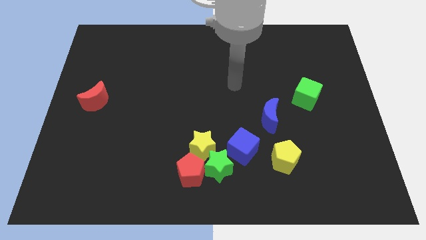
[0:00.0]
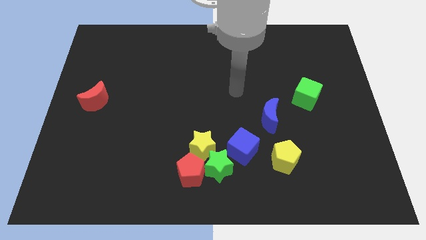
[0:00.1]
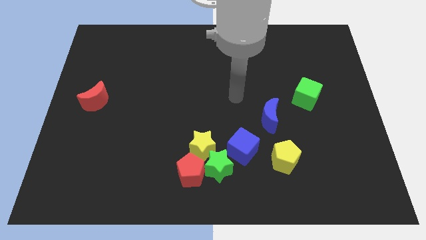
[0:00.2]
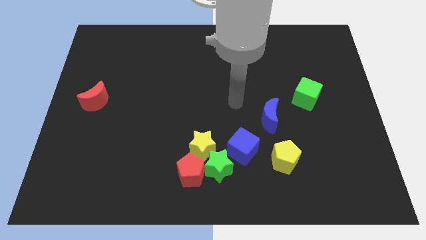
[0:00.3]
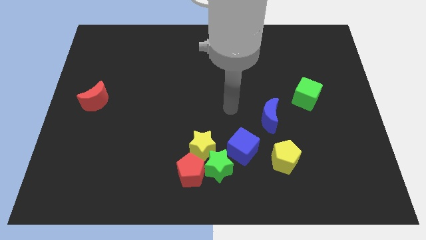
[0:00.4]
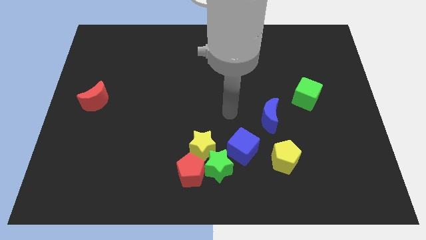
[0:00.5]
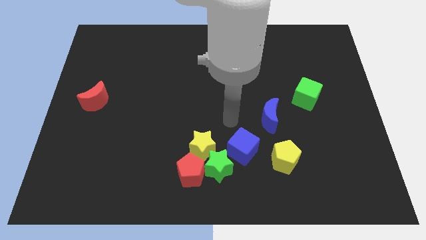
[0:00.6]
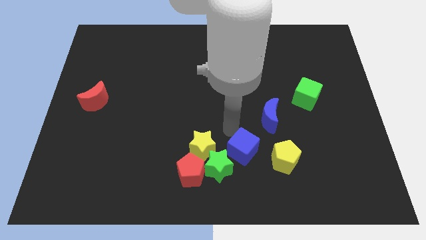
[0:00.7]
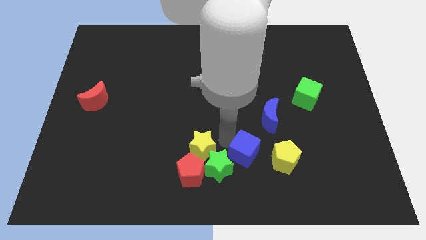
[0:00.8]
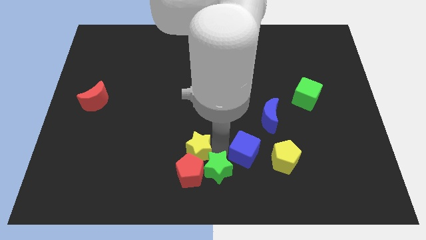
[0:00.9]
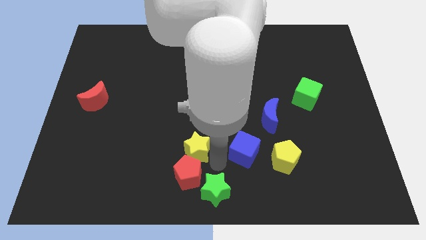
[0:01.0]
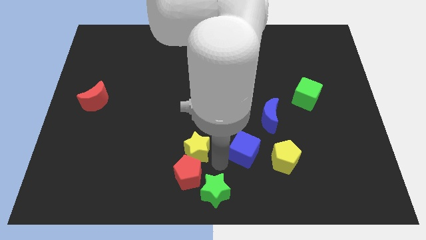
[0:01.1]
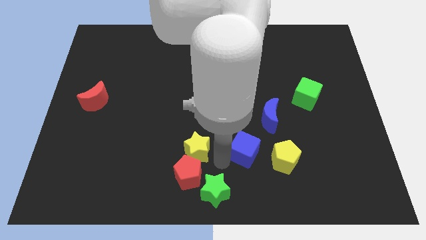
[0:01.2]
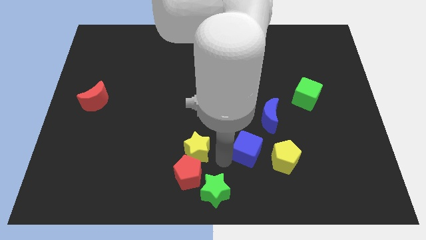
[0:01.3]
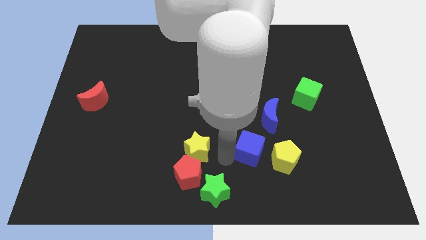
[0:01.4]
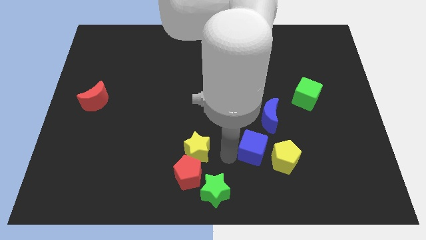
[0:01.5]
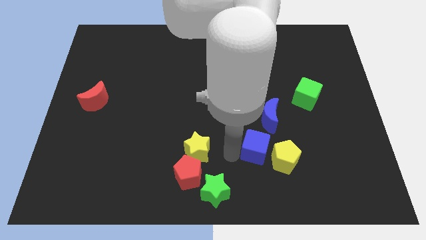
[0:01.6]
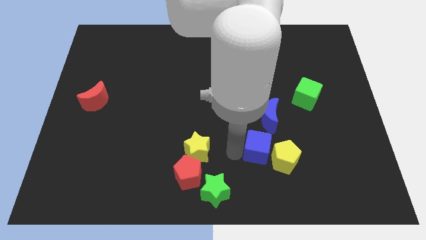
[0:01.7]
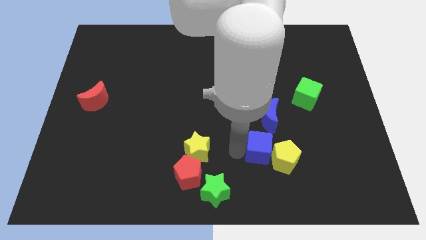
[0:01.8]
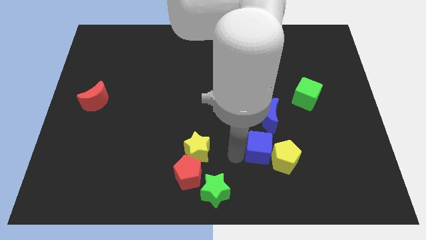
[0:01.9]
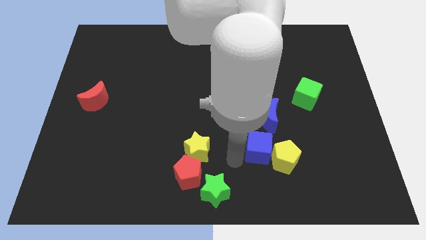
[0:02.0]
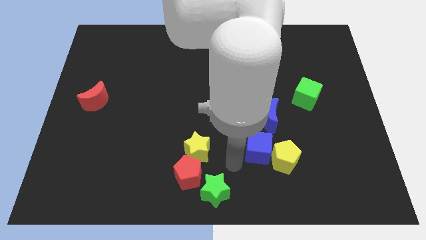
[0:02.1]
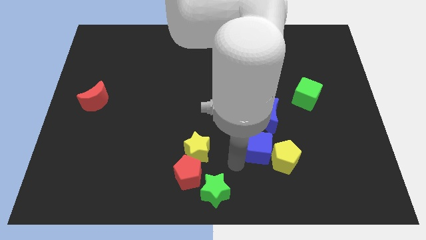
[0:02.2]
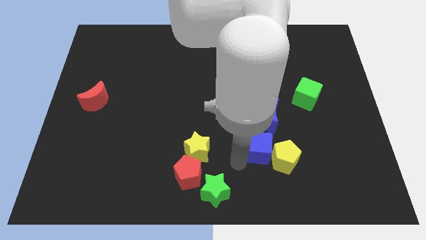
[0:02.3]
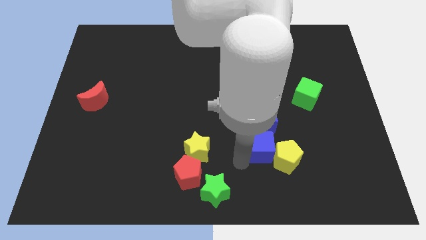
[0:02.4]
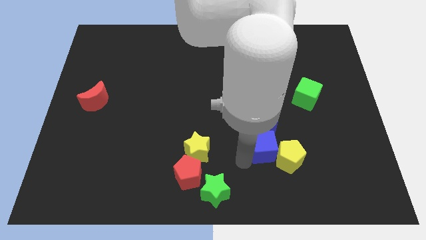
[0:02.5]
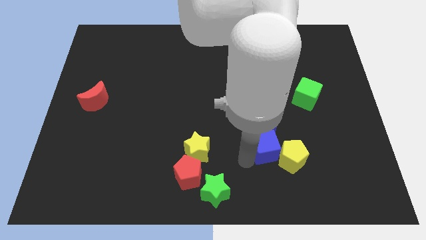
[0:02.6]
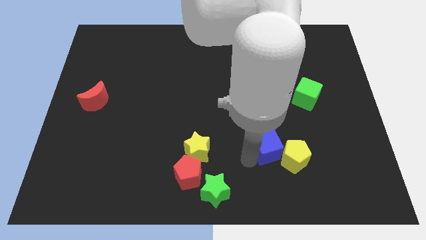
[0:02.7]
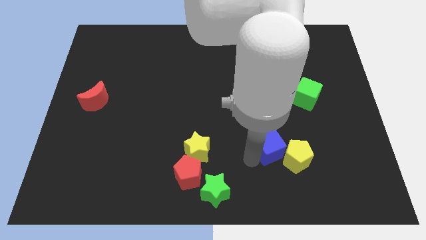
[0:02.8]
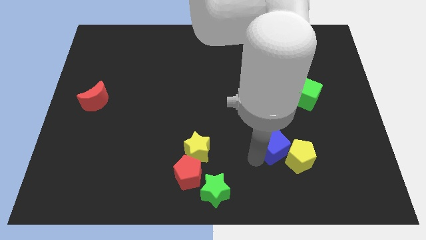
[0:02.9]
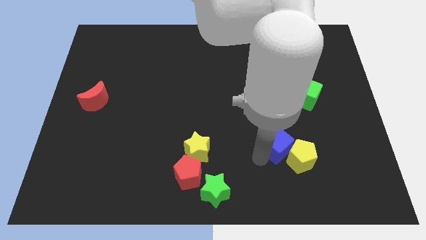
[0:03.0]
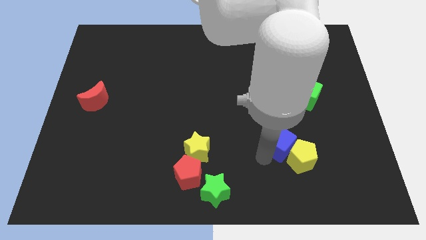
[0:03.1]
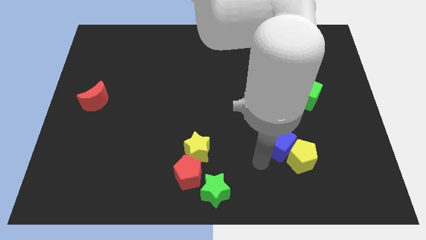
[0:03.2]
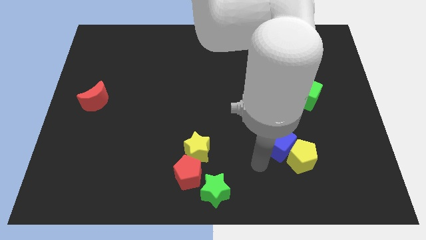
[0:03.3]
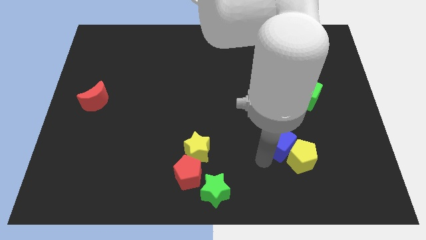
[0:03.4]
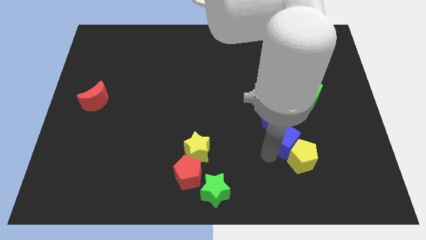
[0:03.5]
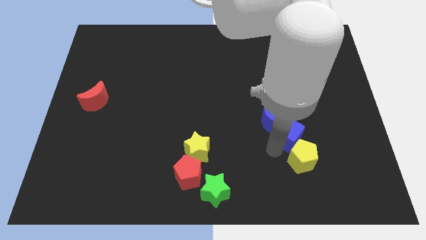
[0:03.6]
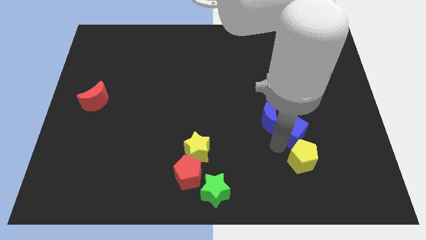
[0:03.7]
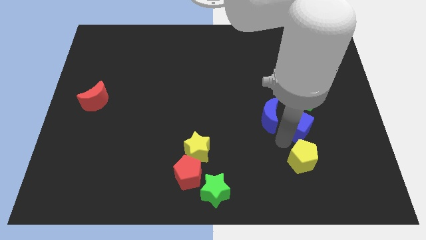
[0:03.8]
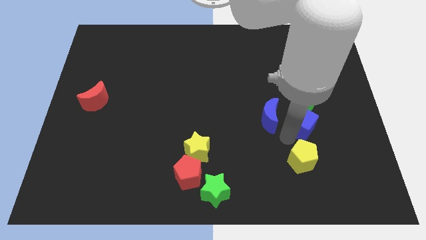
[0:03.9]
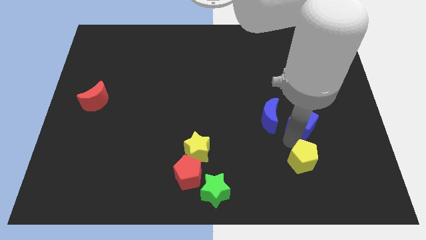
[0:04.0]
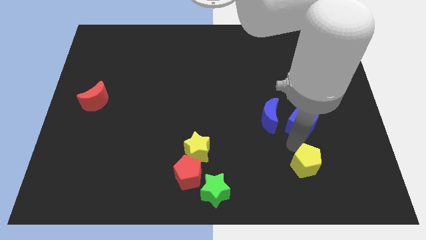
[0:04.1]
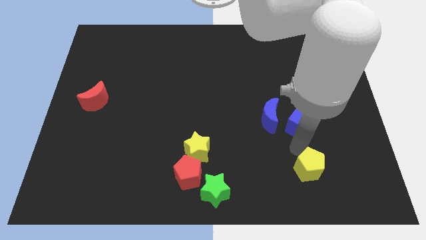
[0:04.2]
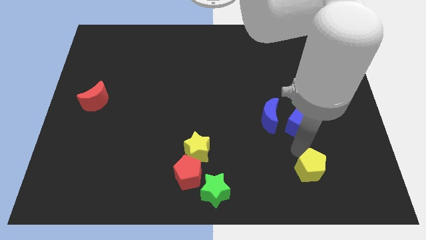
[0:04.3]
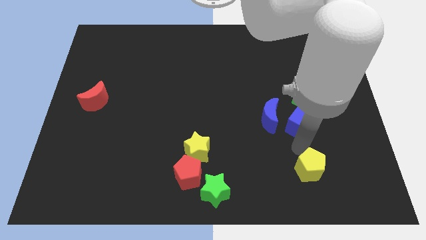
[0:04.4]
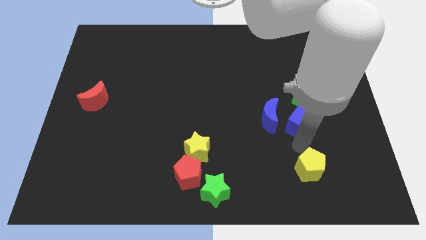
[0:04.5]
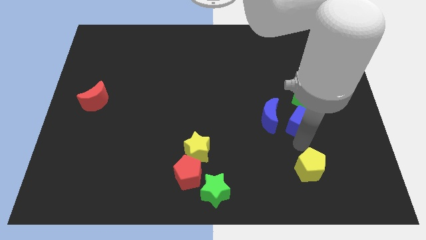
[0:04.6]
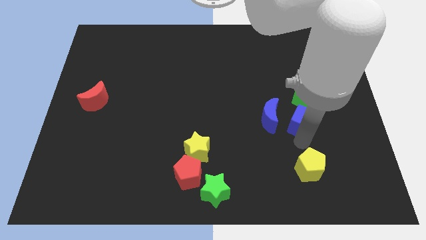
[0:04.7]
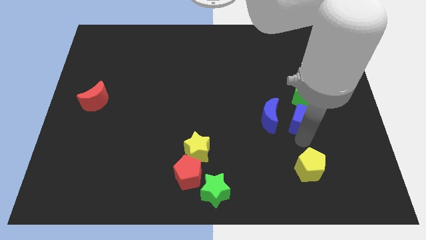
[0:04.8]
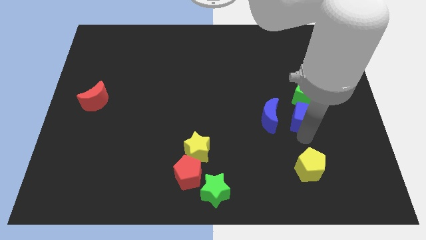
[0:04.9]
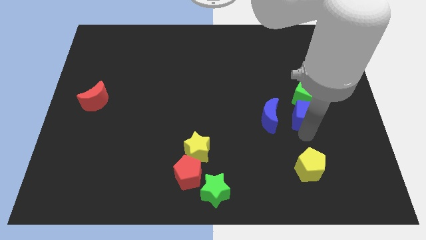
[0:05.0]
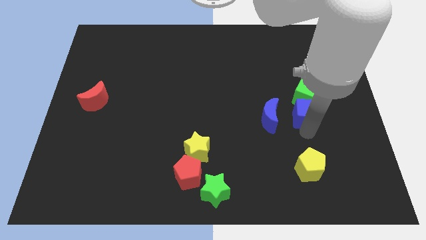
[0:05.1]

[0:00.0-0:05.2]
push the blue cube next to the green cube

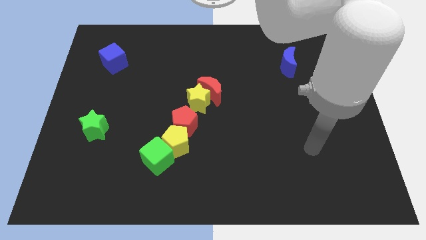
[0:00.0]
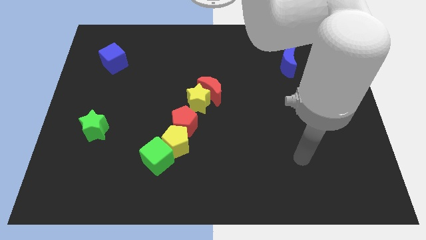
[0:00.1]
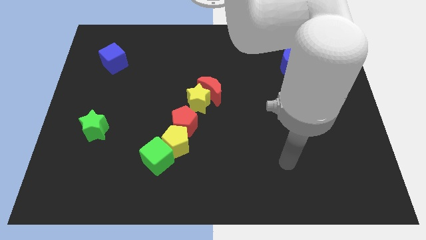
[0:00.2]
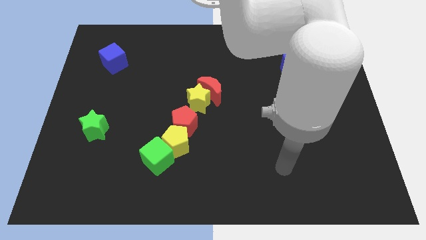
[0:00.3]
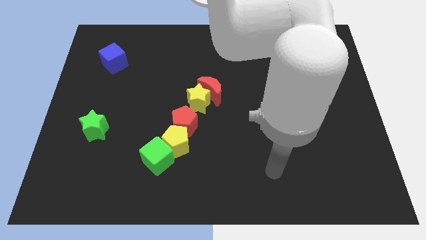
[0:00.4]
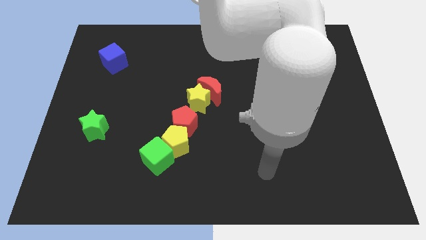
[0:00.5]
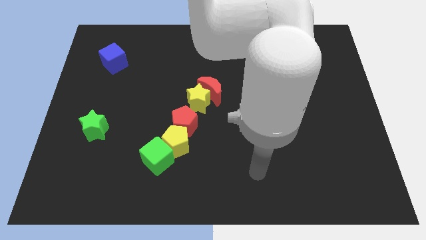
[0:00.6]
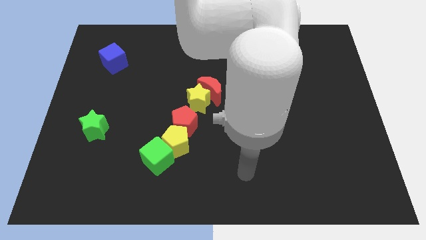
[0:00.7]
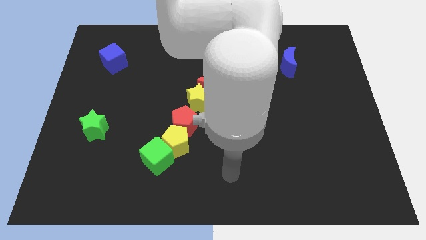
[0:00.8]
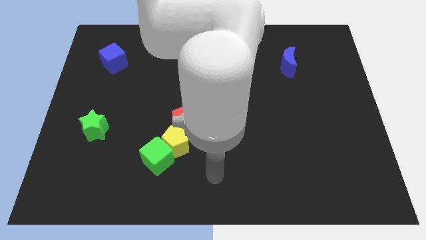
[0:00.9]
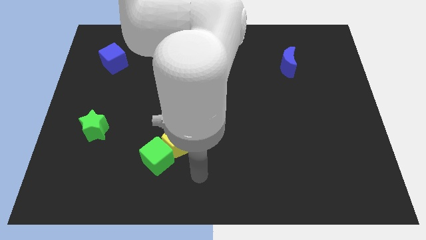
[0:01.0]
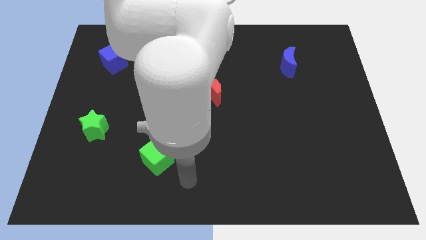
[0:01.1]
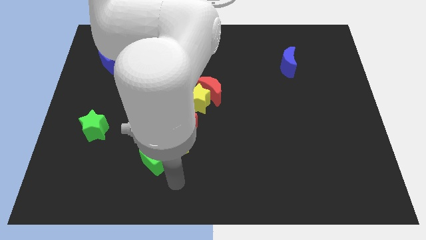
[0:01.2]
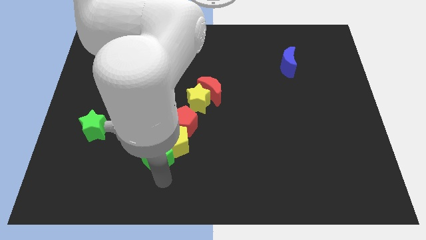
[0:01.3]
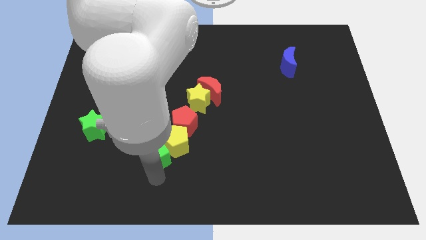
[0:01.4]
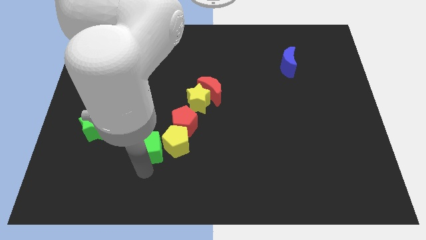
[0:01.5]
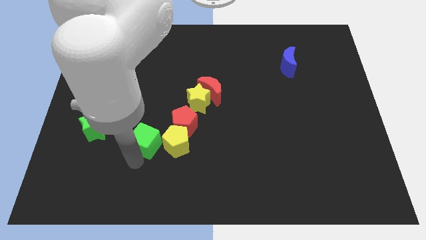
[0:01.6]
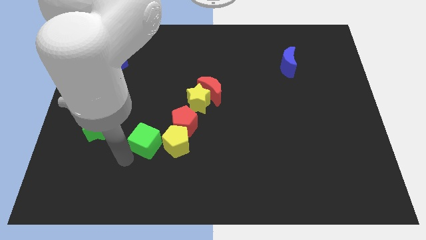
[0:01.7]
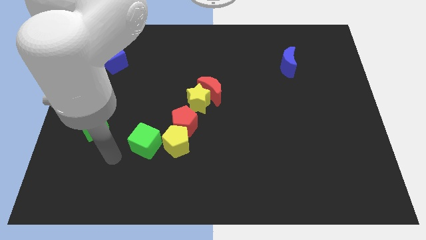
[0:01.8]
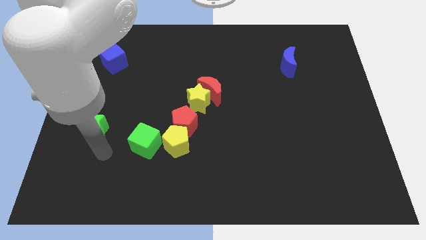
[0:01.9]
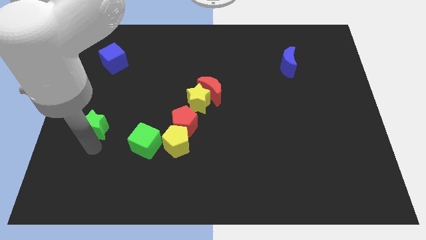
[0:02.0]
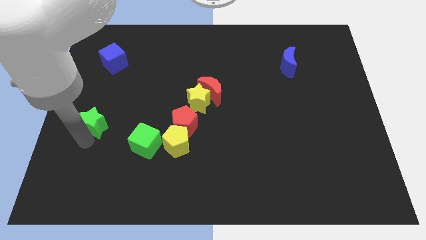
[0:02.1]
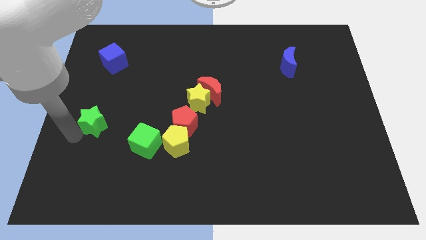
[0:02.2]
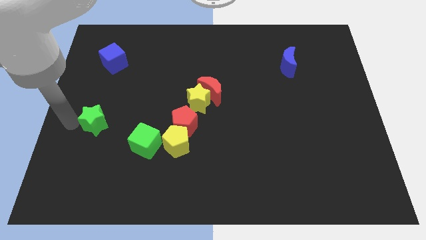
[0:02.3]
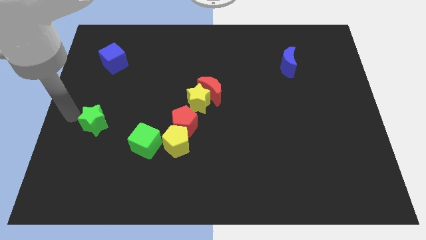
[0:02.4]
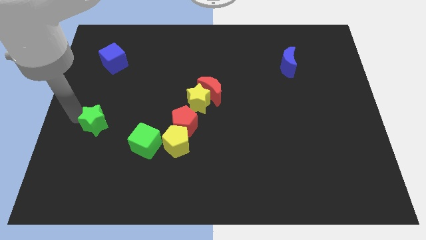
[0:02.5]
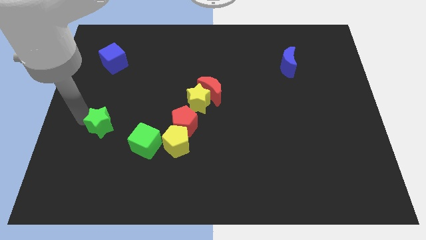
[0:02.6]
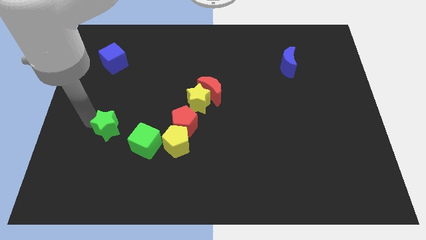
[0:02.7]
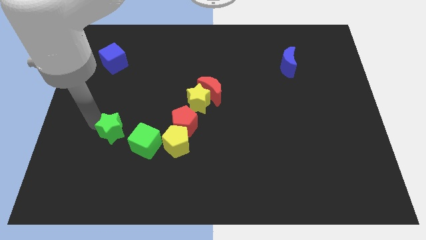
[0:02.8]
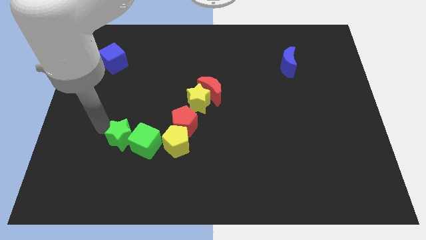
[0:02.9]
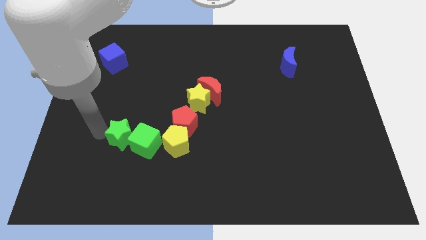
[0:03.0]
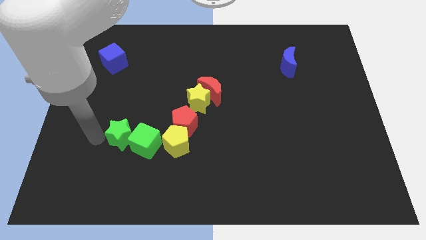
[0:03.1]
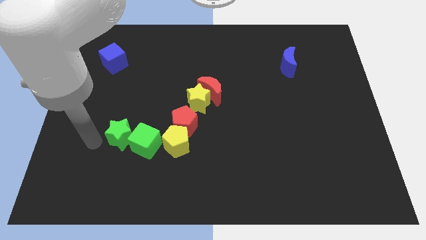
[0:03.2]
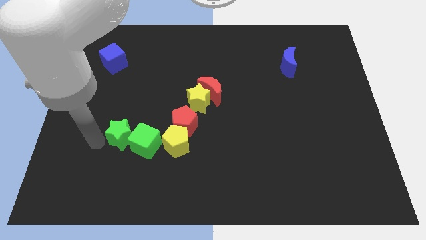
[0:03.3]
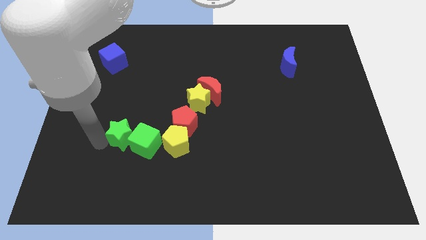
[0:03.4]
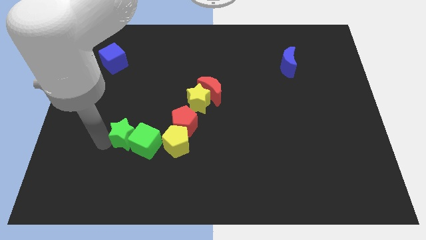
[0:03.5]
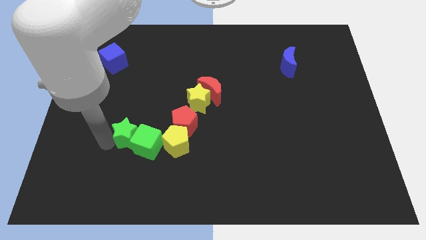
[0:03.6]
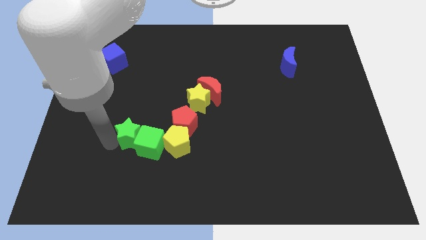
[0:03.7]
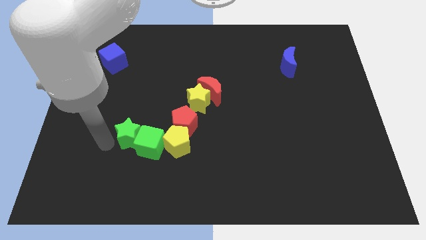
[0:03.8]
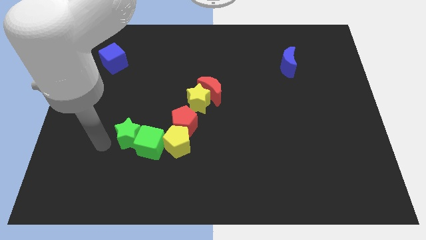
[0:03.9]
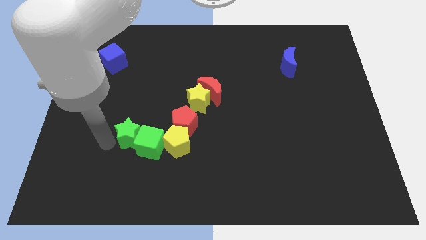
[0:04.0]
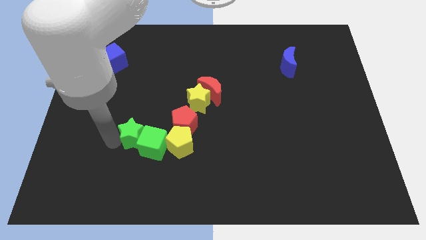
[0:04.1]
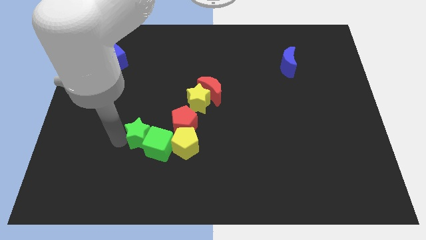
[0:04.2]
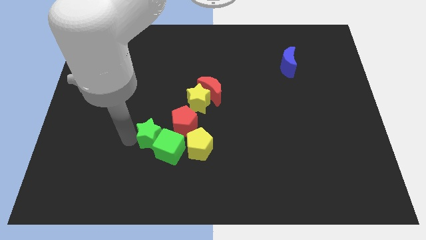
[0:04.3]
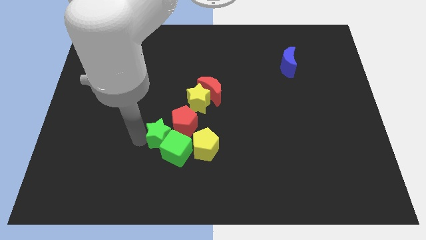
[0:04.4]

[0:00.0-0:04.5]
push the green star next to the red pentagon
